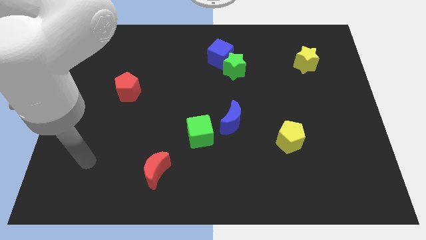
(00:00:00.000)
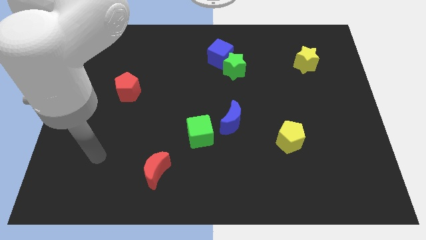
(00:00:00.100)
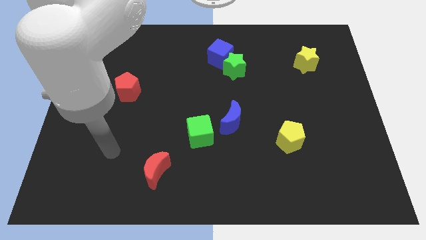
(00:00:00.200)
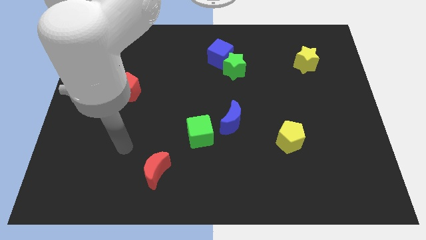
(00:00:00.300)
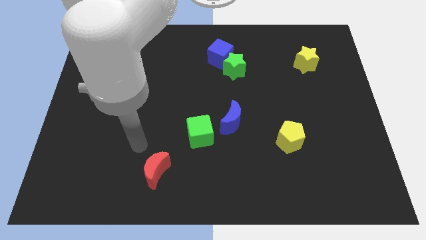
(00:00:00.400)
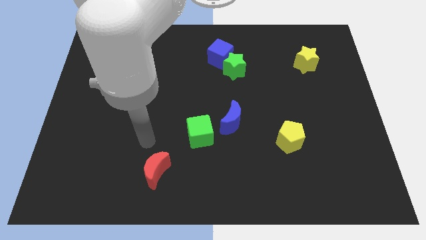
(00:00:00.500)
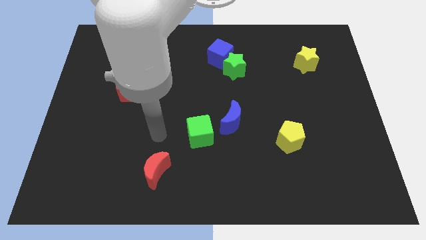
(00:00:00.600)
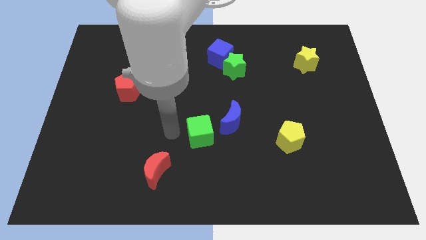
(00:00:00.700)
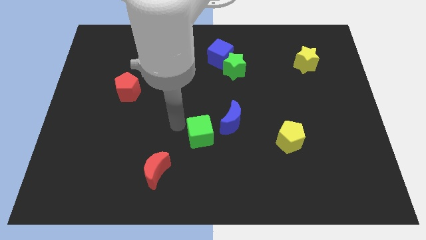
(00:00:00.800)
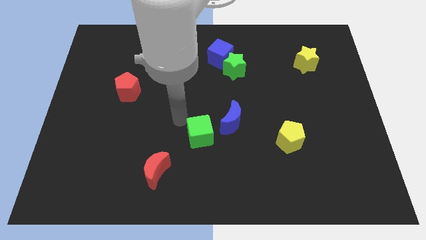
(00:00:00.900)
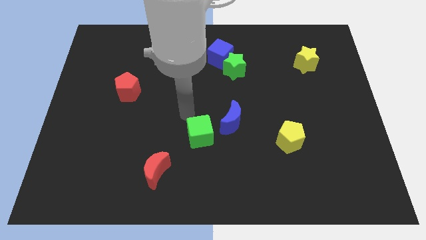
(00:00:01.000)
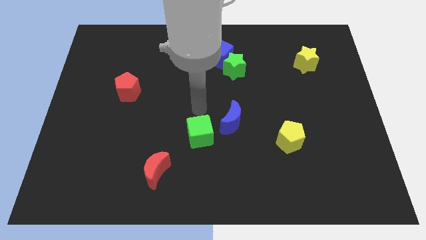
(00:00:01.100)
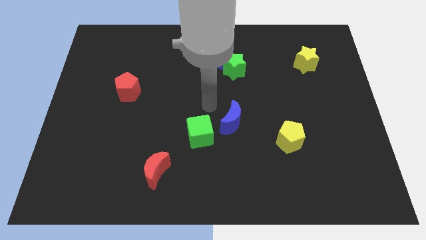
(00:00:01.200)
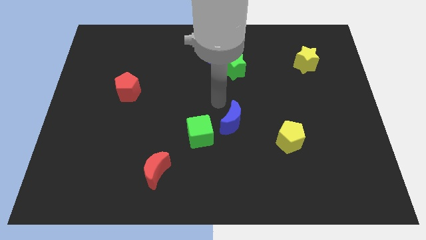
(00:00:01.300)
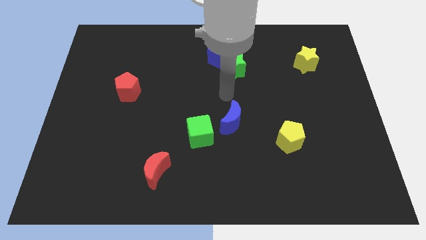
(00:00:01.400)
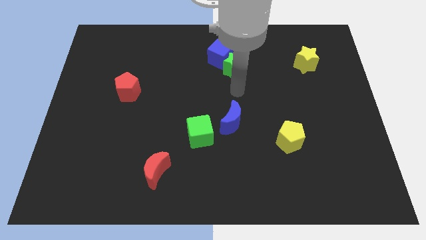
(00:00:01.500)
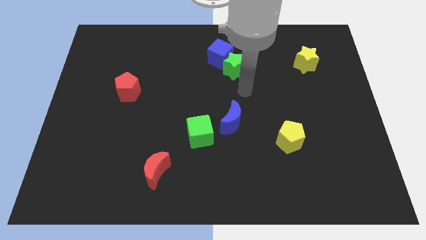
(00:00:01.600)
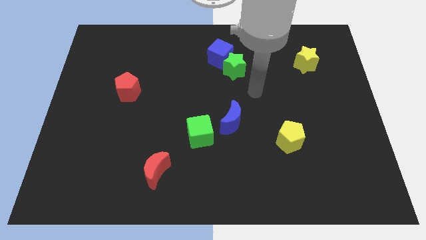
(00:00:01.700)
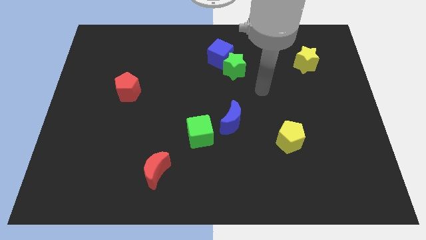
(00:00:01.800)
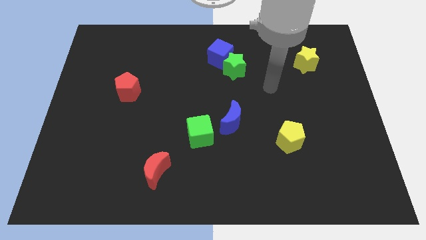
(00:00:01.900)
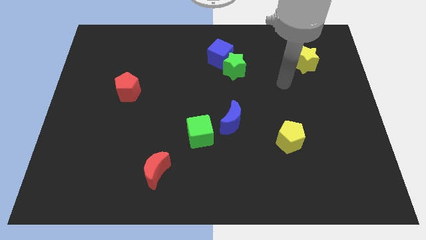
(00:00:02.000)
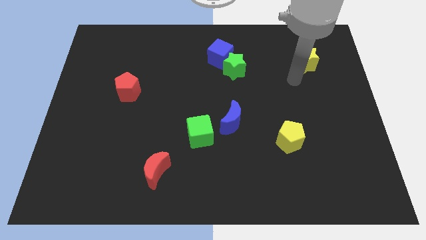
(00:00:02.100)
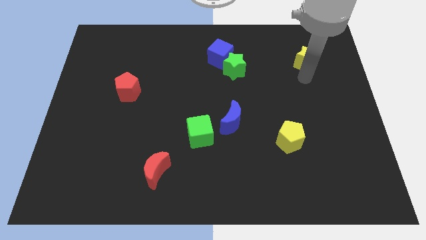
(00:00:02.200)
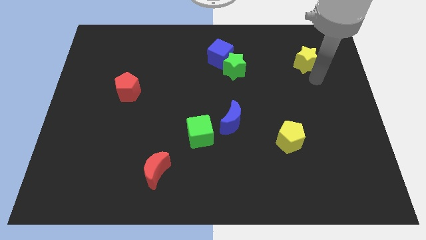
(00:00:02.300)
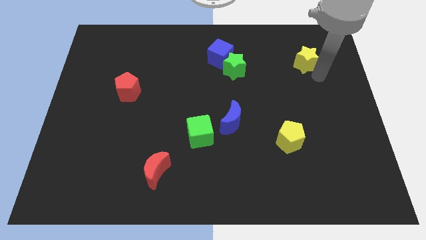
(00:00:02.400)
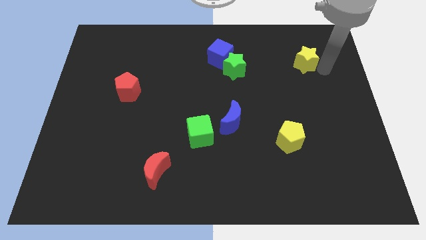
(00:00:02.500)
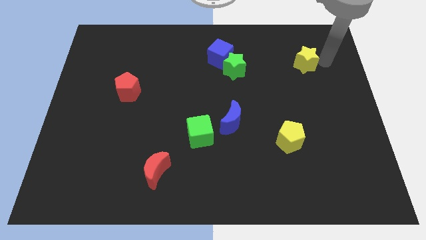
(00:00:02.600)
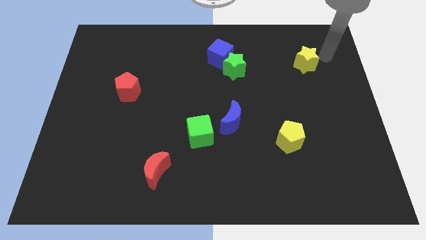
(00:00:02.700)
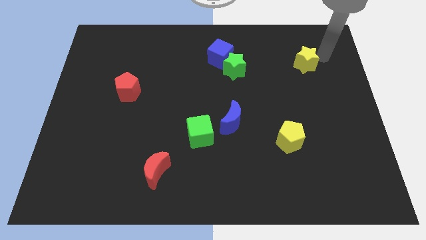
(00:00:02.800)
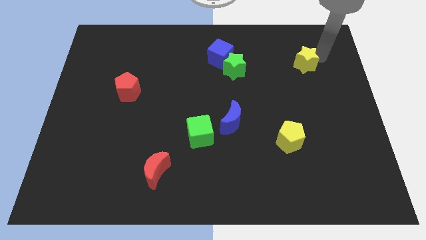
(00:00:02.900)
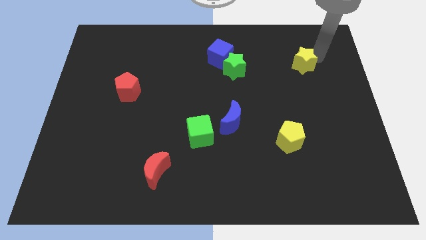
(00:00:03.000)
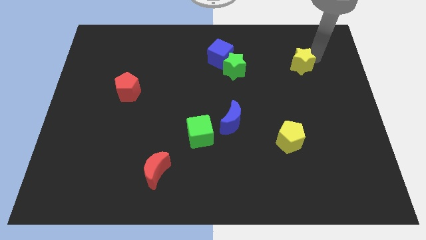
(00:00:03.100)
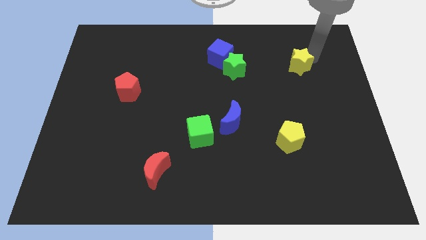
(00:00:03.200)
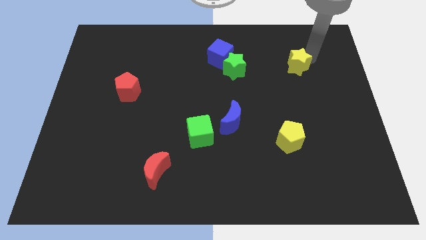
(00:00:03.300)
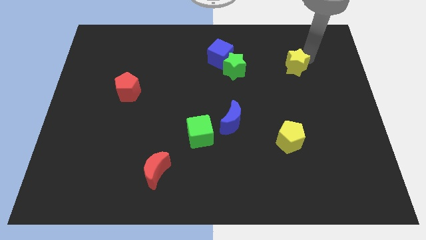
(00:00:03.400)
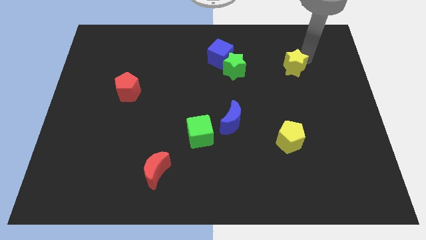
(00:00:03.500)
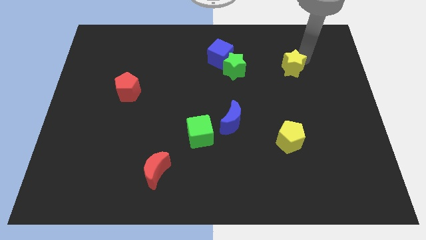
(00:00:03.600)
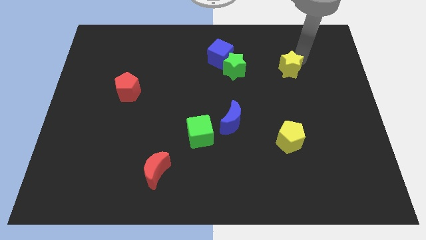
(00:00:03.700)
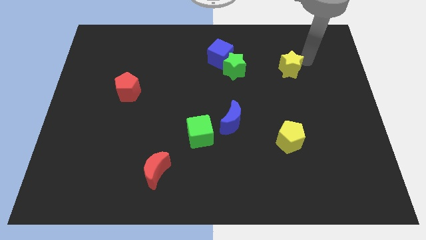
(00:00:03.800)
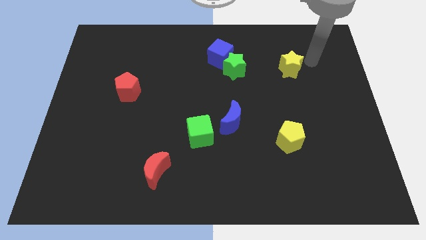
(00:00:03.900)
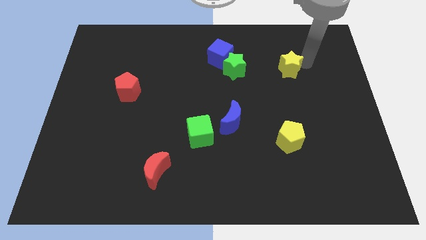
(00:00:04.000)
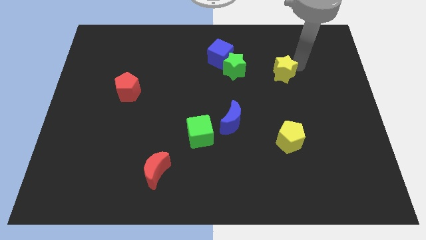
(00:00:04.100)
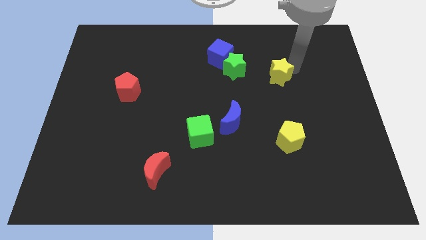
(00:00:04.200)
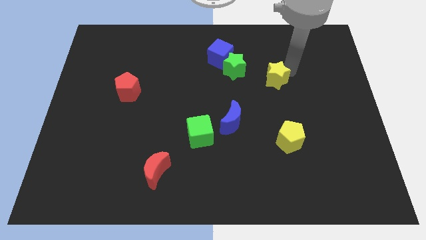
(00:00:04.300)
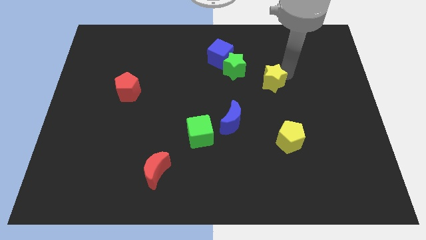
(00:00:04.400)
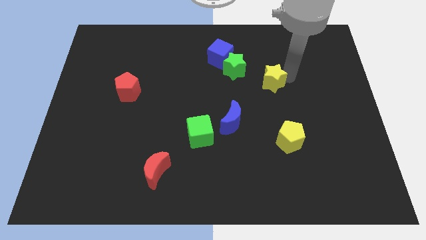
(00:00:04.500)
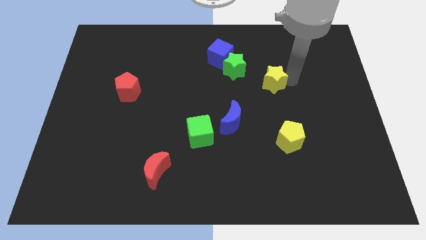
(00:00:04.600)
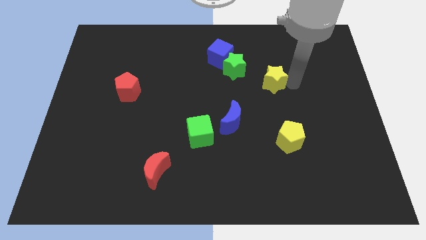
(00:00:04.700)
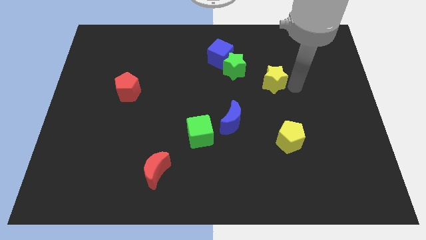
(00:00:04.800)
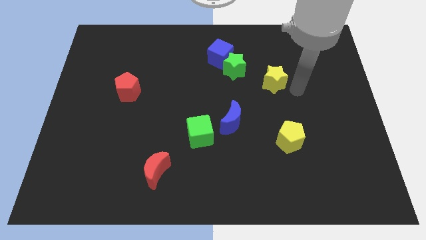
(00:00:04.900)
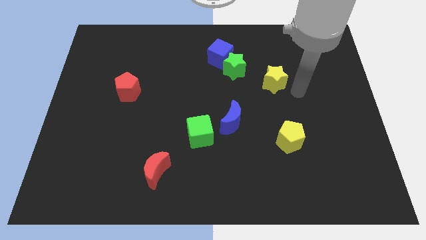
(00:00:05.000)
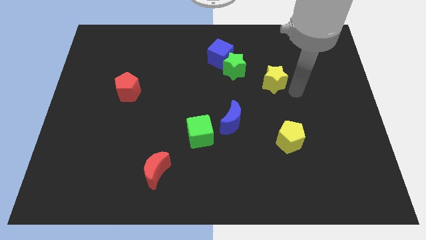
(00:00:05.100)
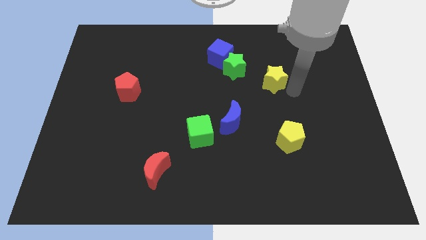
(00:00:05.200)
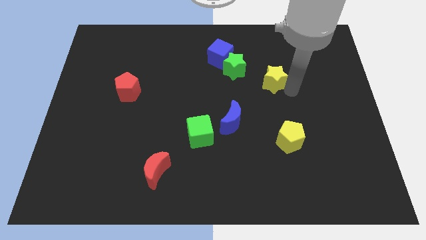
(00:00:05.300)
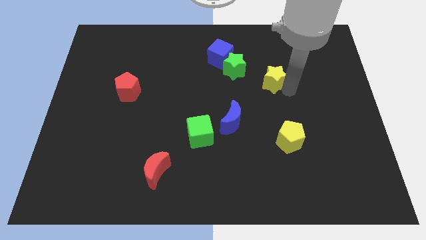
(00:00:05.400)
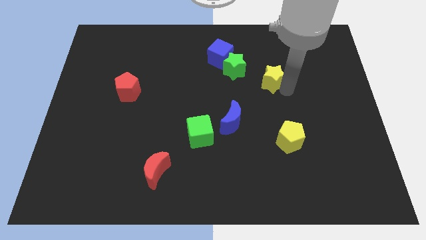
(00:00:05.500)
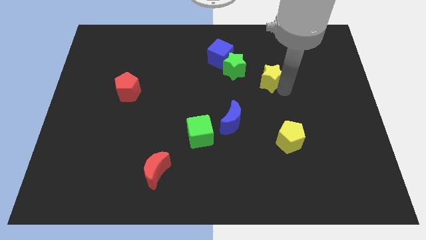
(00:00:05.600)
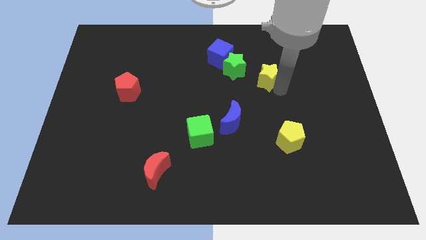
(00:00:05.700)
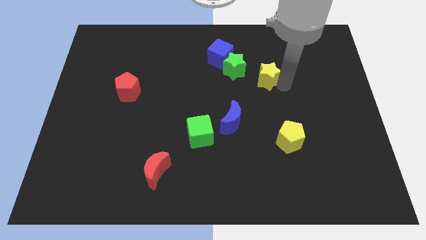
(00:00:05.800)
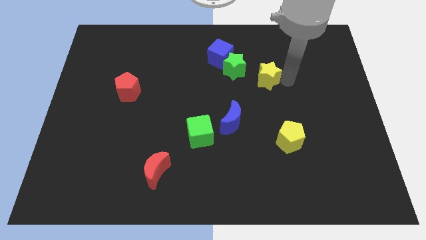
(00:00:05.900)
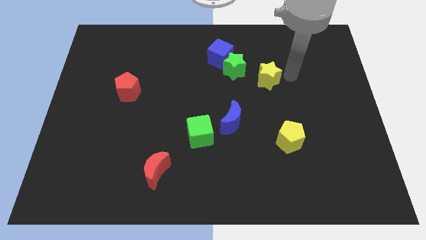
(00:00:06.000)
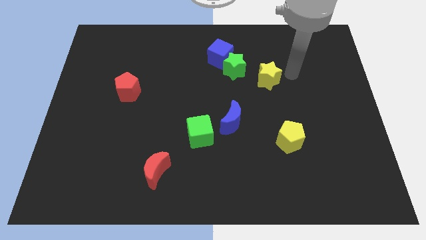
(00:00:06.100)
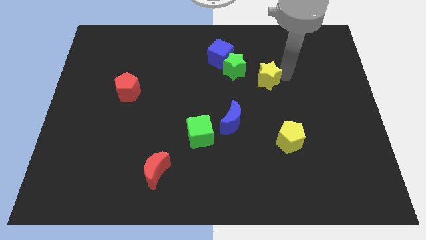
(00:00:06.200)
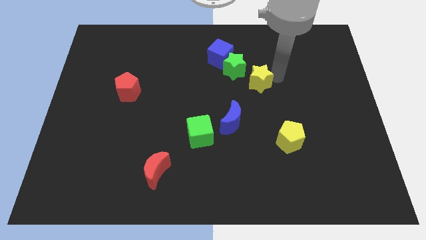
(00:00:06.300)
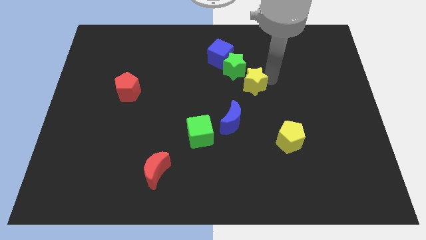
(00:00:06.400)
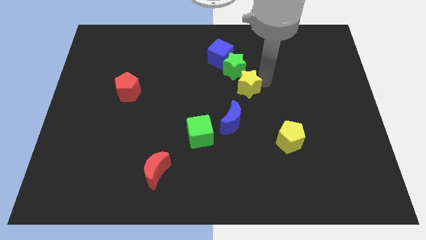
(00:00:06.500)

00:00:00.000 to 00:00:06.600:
put the yellow star above the blue moon

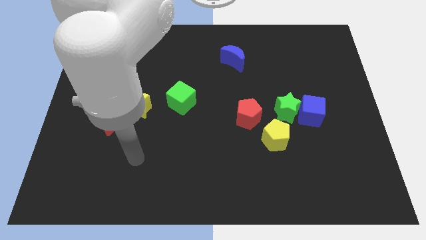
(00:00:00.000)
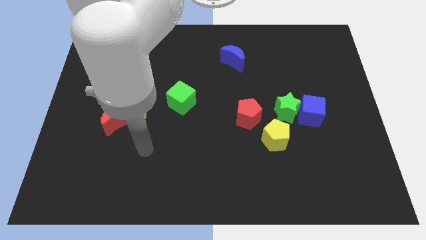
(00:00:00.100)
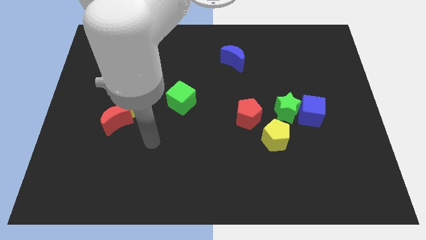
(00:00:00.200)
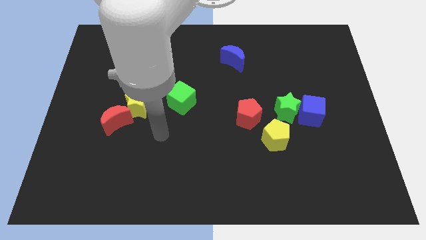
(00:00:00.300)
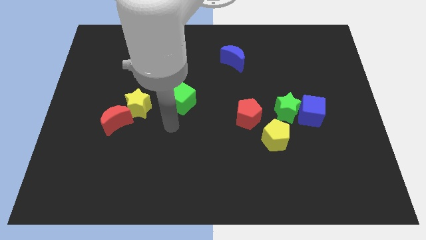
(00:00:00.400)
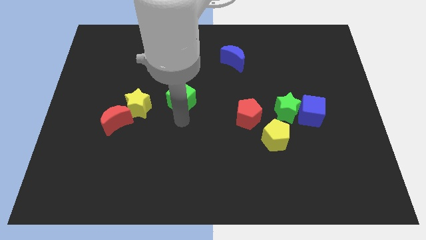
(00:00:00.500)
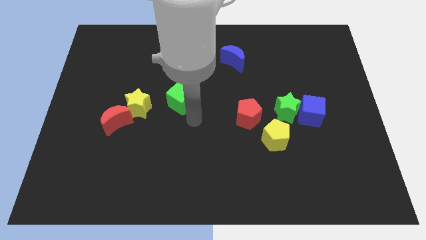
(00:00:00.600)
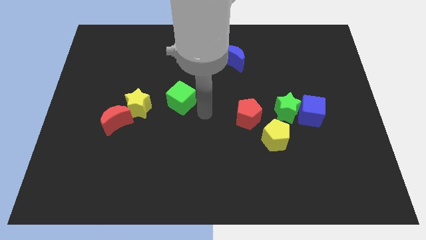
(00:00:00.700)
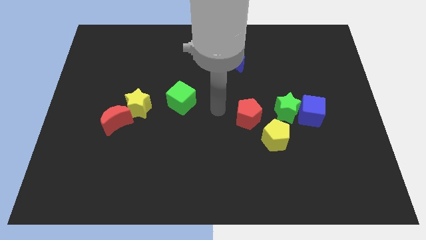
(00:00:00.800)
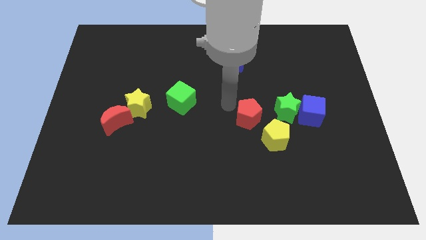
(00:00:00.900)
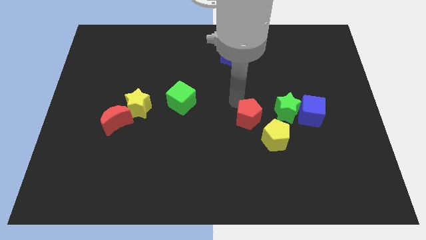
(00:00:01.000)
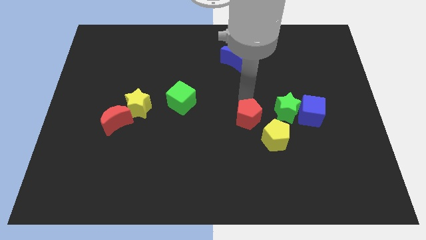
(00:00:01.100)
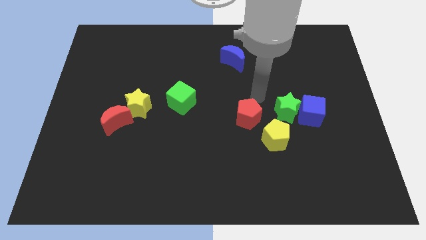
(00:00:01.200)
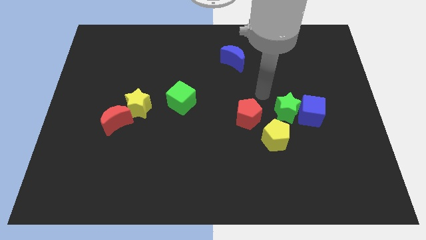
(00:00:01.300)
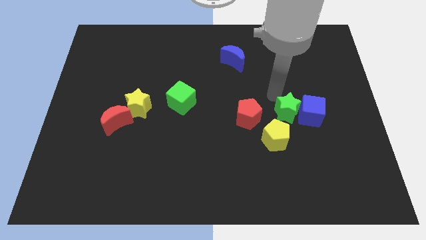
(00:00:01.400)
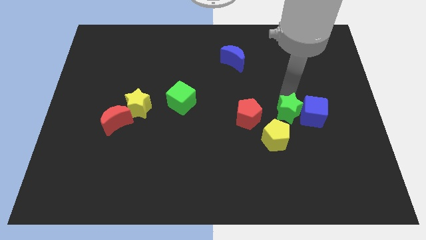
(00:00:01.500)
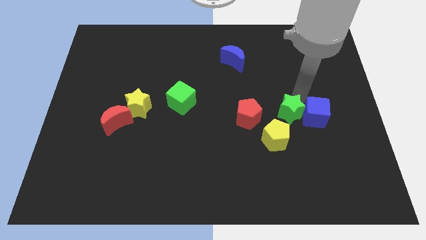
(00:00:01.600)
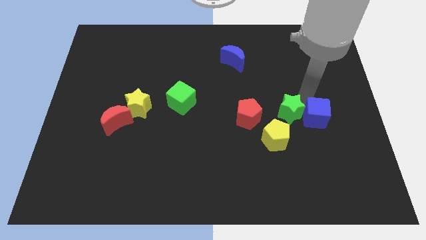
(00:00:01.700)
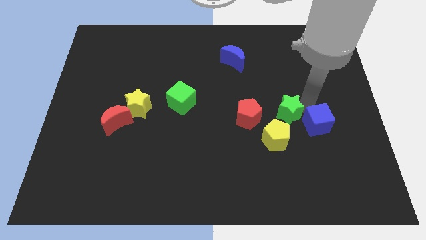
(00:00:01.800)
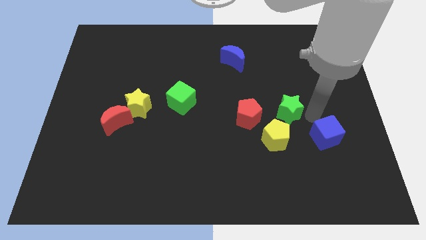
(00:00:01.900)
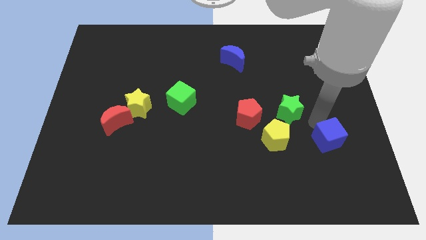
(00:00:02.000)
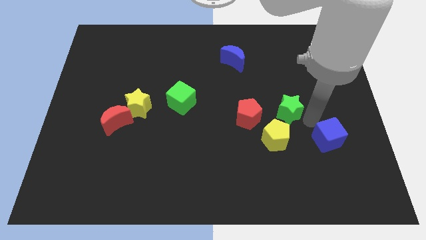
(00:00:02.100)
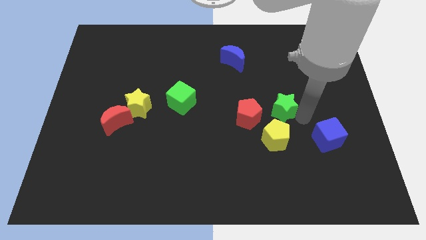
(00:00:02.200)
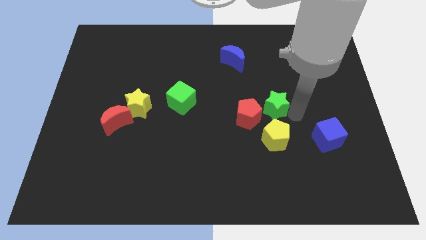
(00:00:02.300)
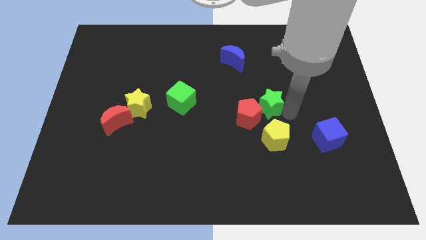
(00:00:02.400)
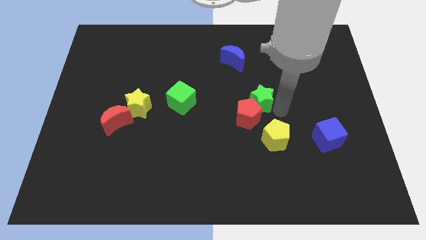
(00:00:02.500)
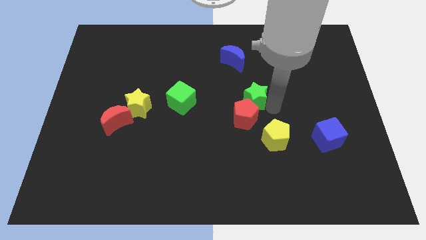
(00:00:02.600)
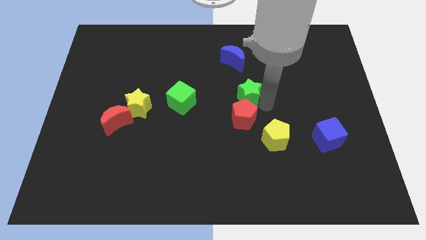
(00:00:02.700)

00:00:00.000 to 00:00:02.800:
slide the green star to the bottom of the blue moon
